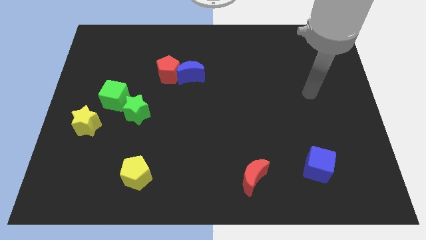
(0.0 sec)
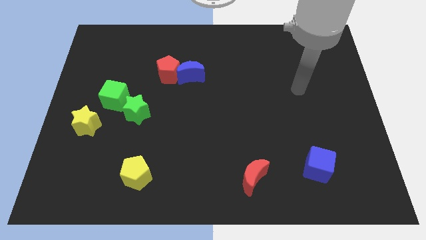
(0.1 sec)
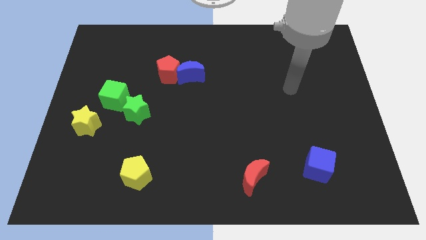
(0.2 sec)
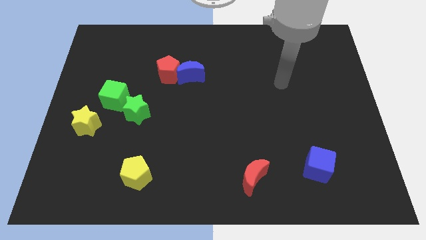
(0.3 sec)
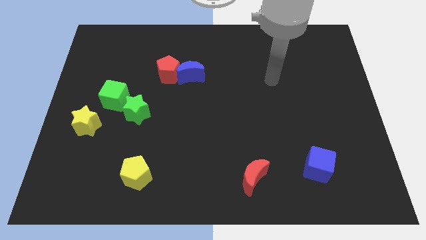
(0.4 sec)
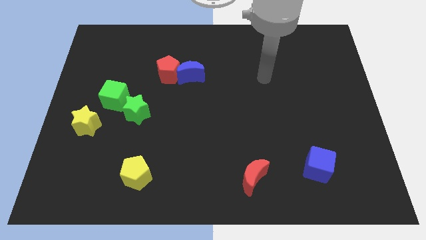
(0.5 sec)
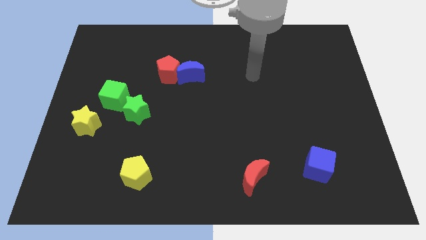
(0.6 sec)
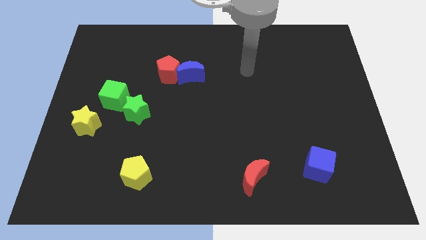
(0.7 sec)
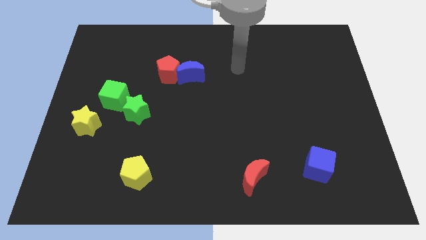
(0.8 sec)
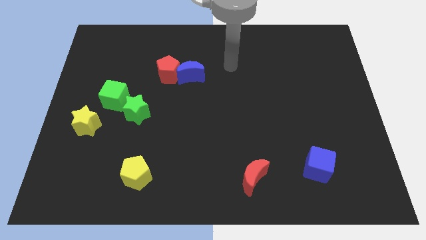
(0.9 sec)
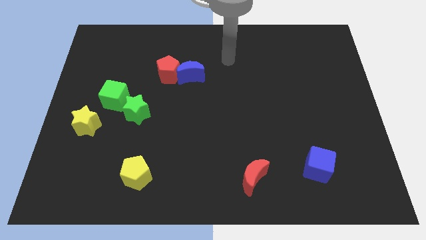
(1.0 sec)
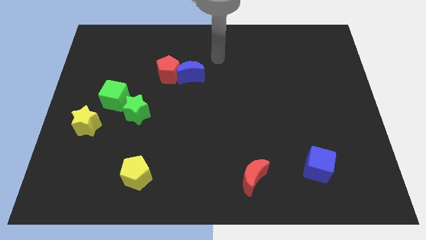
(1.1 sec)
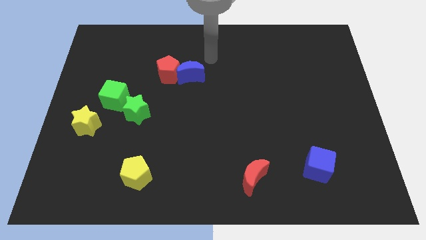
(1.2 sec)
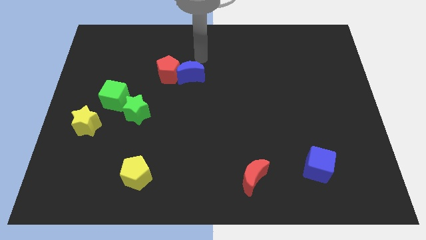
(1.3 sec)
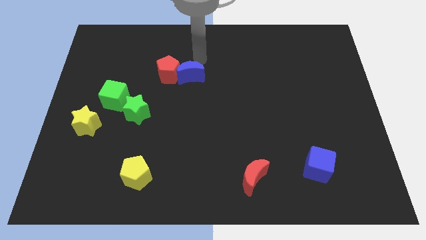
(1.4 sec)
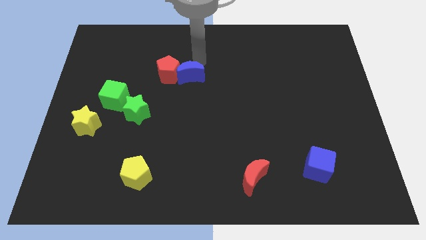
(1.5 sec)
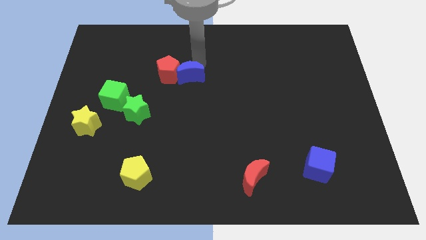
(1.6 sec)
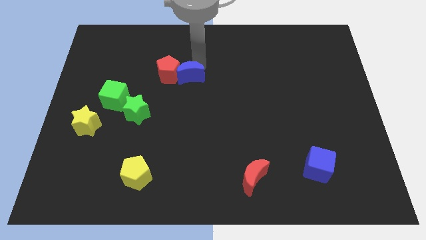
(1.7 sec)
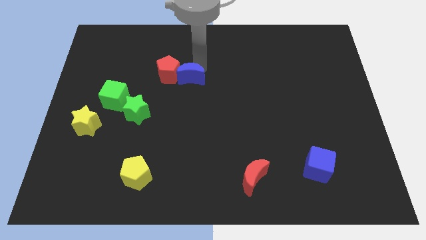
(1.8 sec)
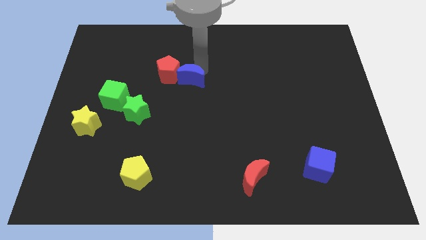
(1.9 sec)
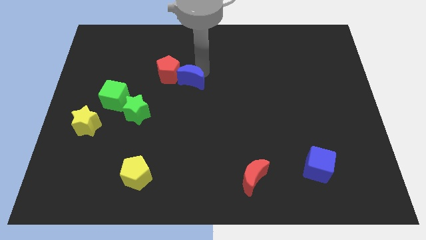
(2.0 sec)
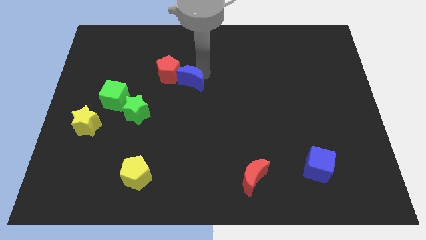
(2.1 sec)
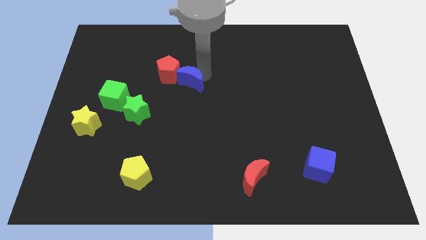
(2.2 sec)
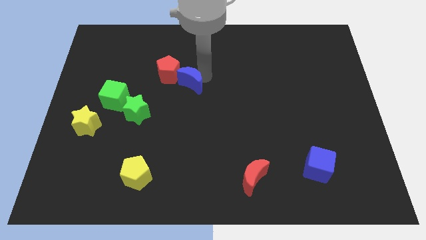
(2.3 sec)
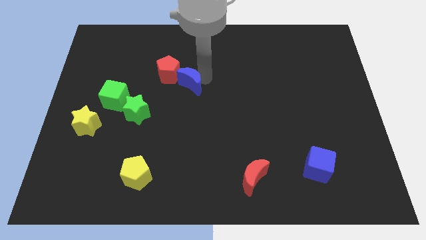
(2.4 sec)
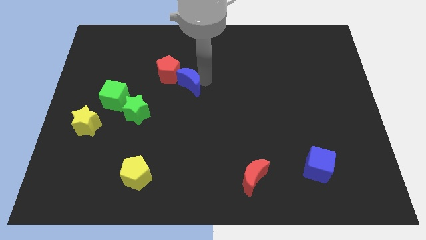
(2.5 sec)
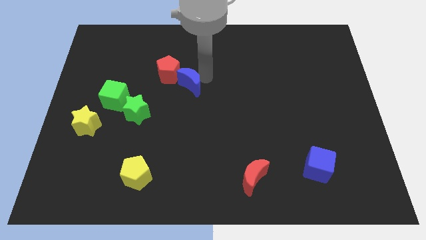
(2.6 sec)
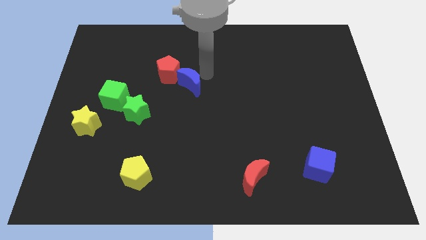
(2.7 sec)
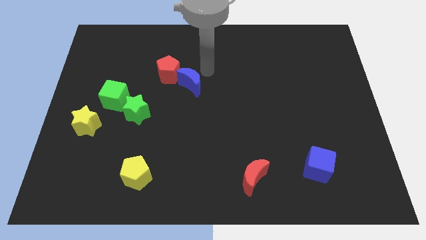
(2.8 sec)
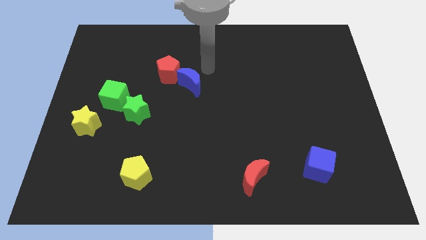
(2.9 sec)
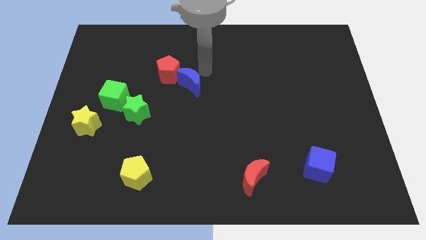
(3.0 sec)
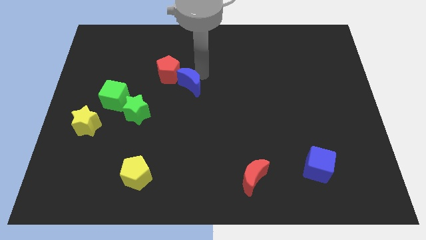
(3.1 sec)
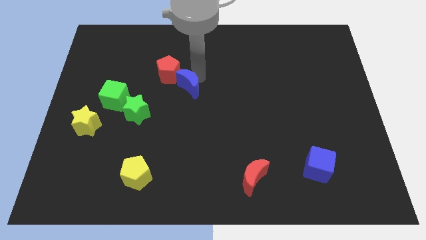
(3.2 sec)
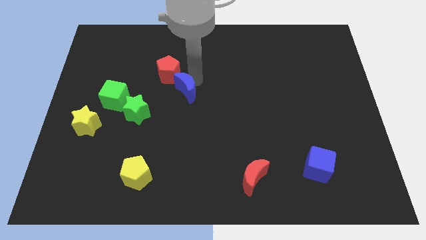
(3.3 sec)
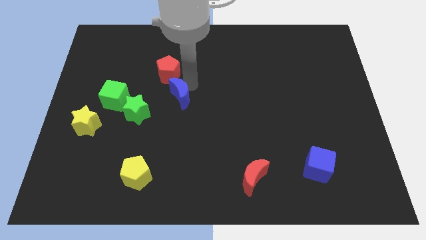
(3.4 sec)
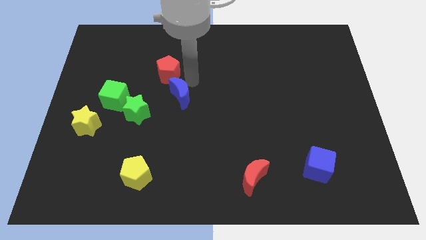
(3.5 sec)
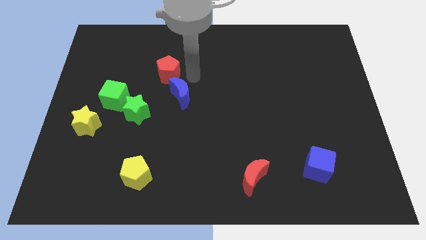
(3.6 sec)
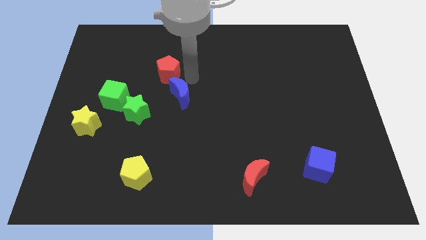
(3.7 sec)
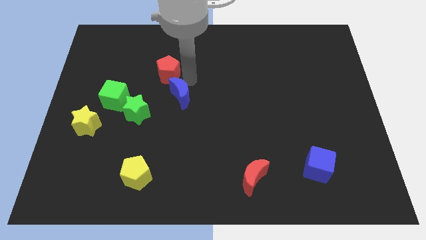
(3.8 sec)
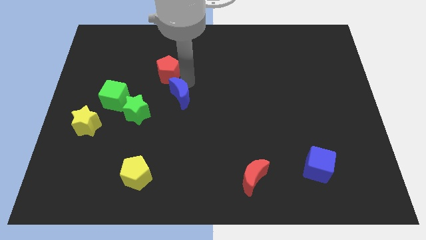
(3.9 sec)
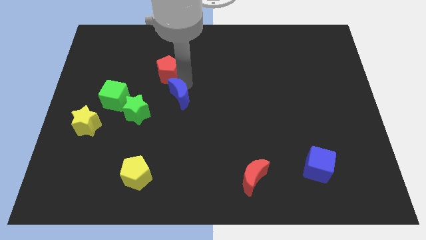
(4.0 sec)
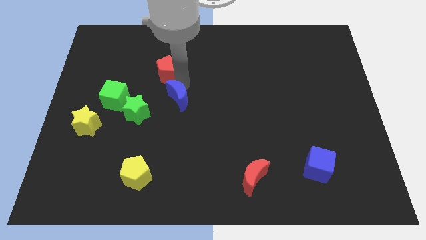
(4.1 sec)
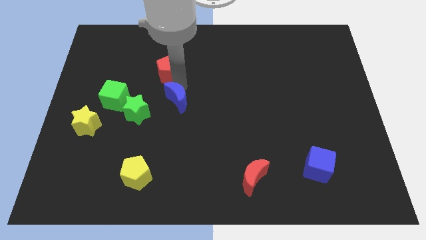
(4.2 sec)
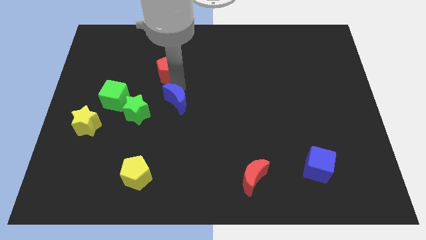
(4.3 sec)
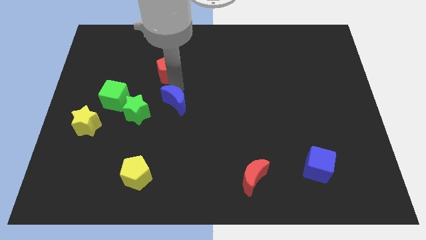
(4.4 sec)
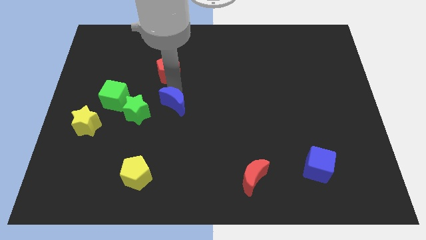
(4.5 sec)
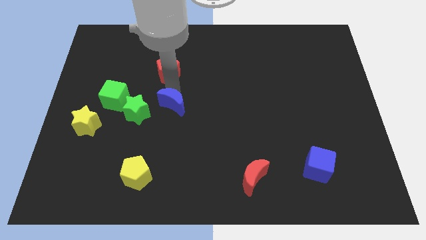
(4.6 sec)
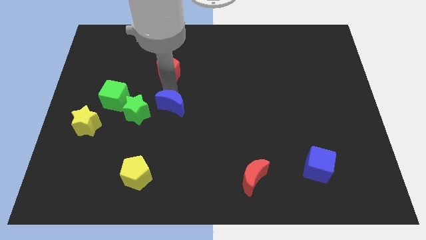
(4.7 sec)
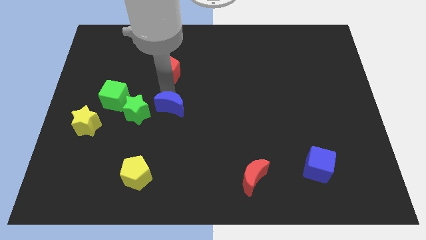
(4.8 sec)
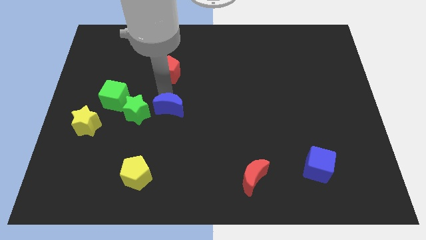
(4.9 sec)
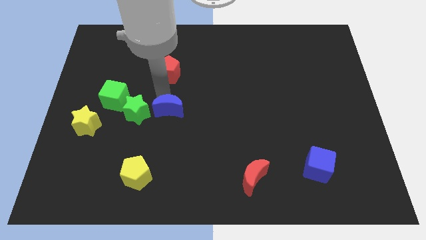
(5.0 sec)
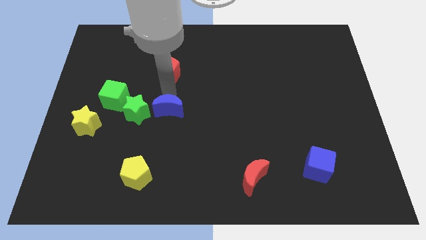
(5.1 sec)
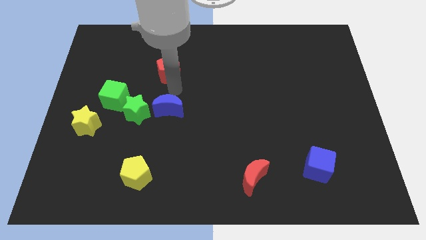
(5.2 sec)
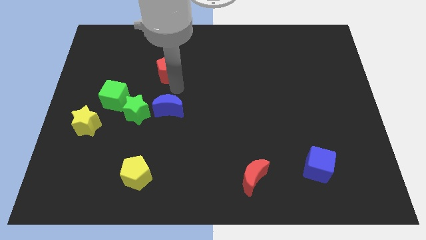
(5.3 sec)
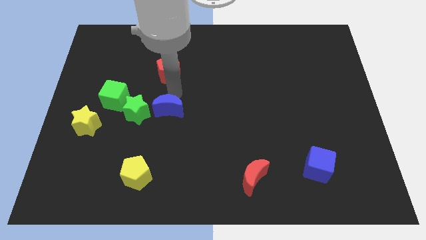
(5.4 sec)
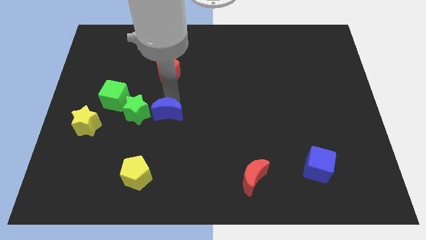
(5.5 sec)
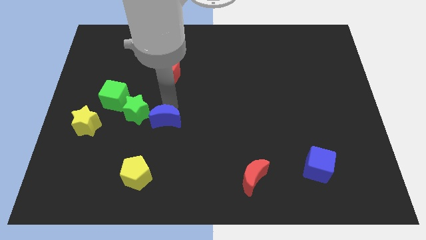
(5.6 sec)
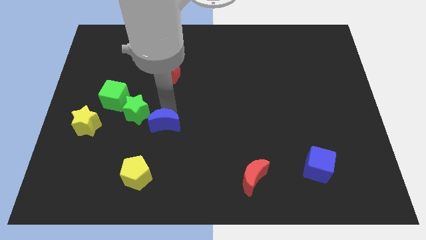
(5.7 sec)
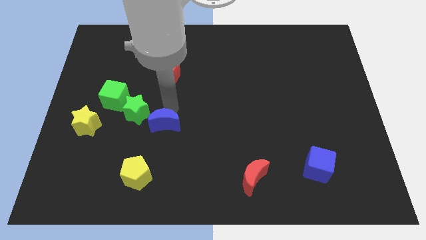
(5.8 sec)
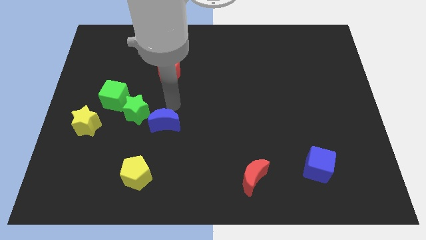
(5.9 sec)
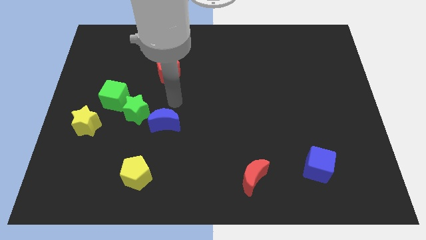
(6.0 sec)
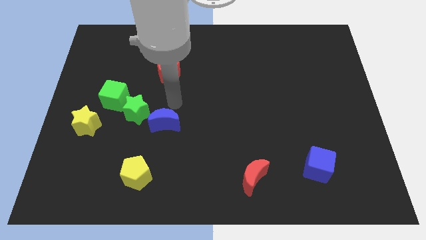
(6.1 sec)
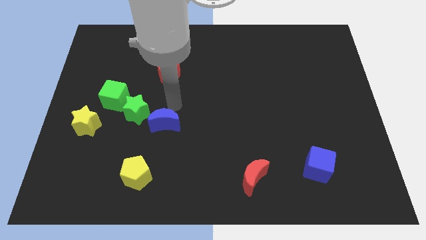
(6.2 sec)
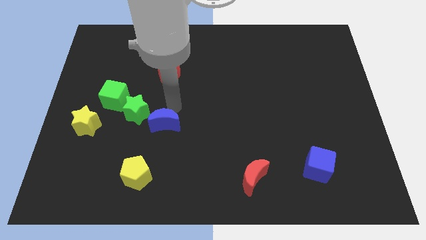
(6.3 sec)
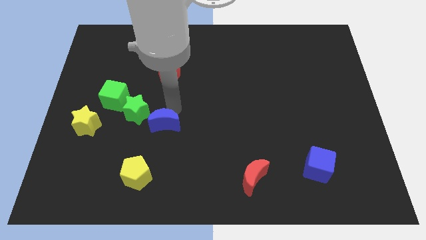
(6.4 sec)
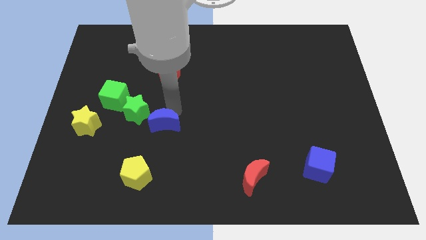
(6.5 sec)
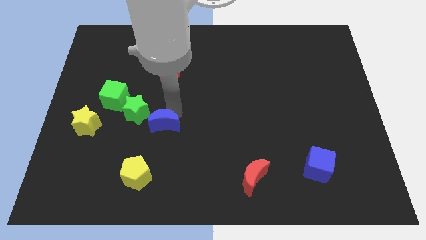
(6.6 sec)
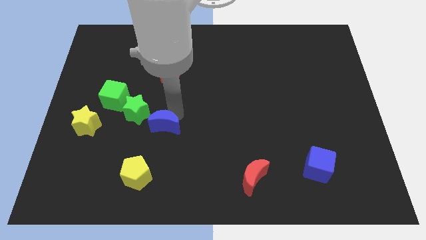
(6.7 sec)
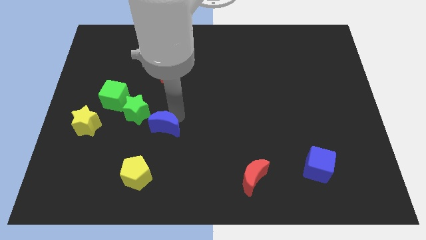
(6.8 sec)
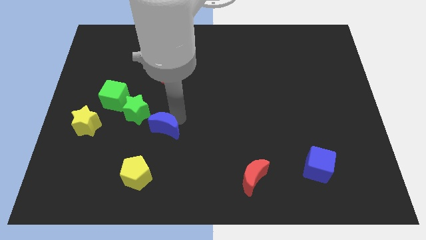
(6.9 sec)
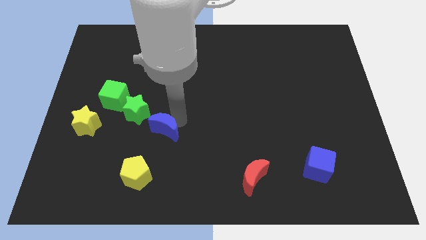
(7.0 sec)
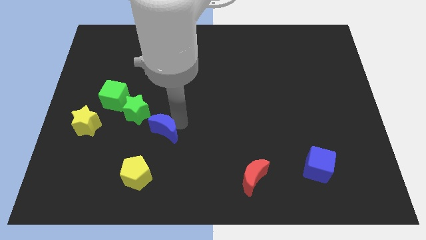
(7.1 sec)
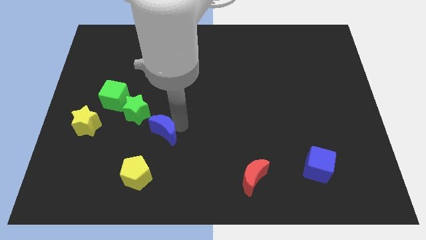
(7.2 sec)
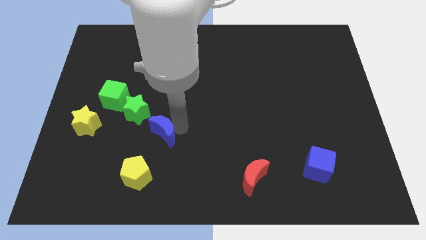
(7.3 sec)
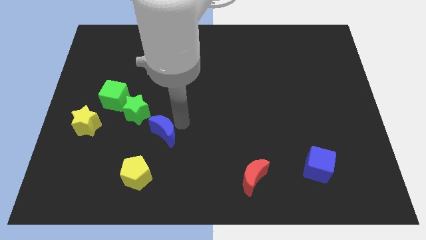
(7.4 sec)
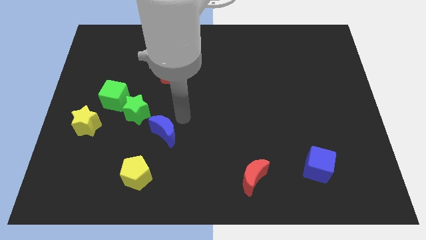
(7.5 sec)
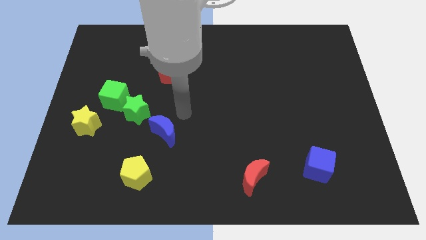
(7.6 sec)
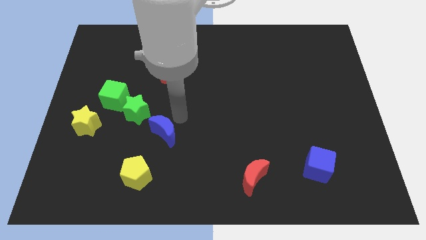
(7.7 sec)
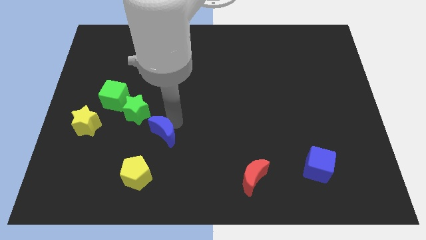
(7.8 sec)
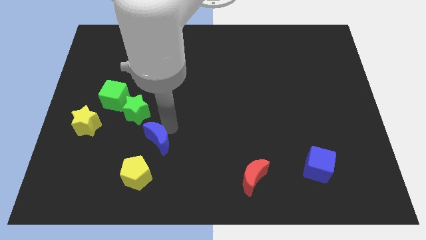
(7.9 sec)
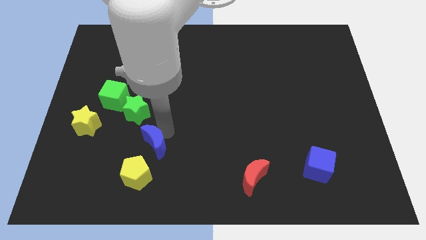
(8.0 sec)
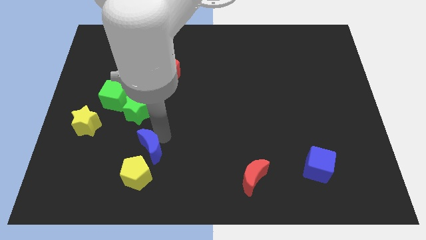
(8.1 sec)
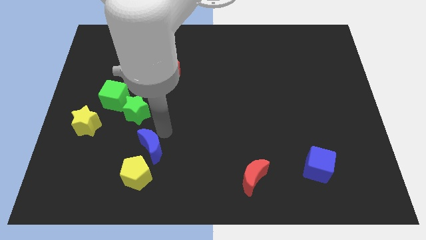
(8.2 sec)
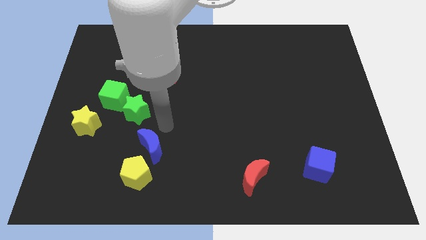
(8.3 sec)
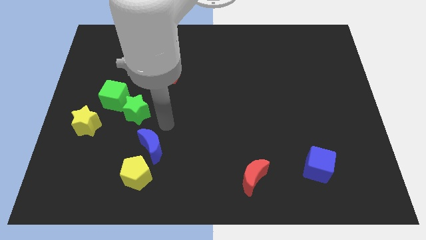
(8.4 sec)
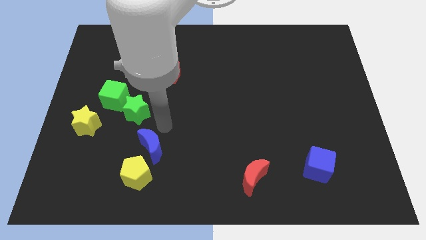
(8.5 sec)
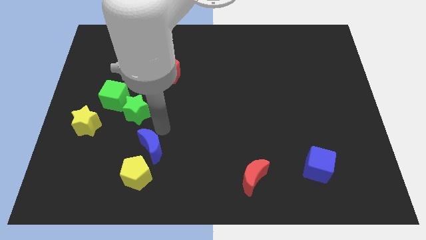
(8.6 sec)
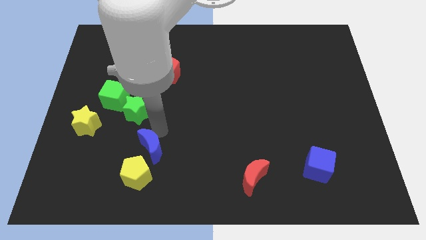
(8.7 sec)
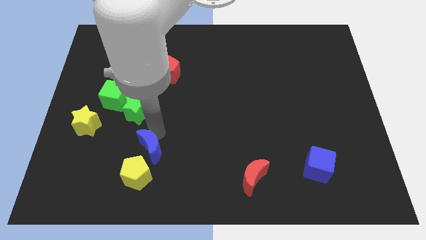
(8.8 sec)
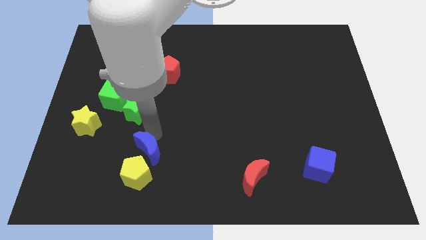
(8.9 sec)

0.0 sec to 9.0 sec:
slide the blue moon towards the yellow pentagon
